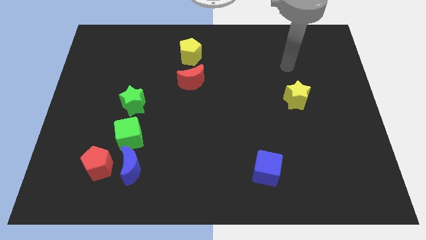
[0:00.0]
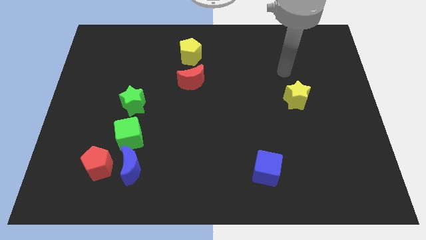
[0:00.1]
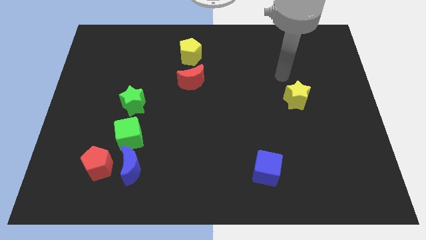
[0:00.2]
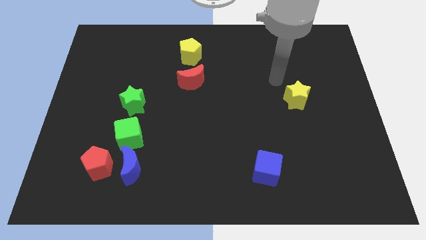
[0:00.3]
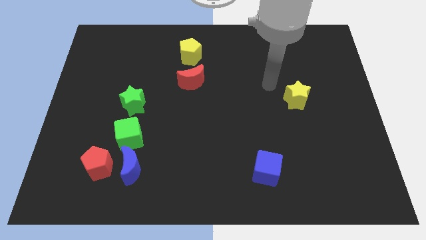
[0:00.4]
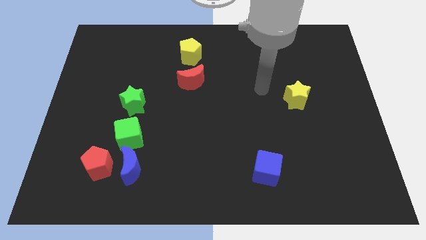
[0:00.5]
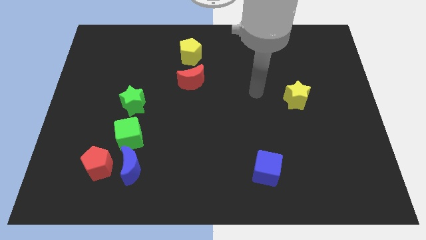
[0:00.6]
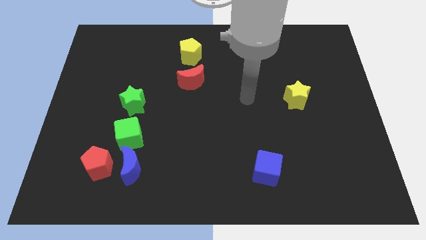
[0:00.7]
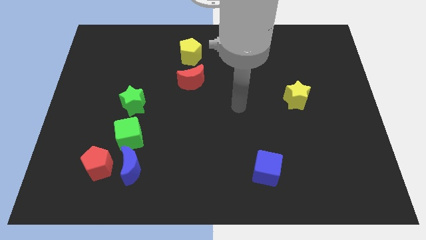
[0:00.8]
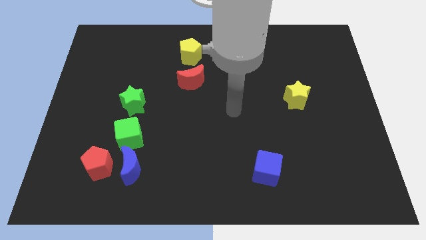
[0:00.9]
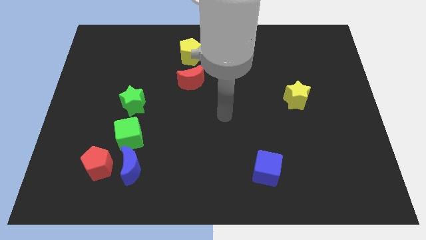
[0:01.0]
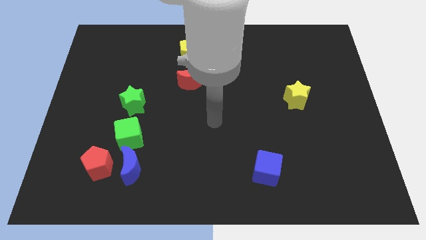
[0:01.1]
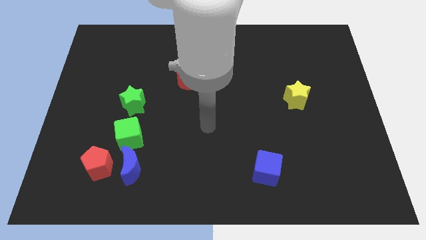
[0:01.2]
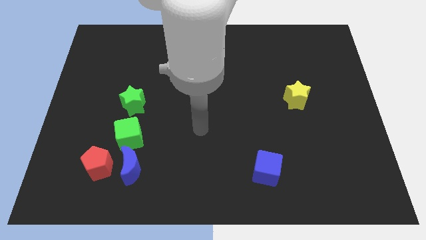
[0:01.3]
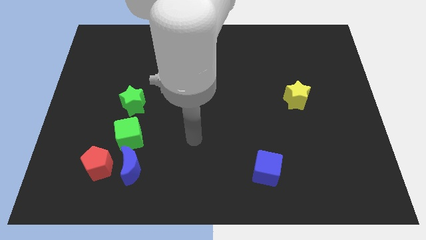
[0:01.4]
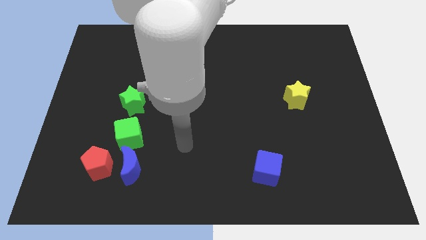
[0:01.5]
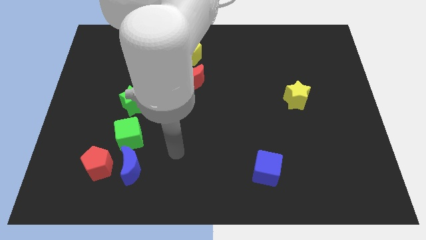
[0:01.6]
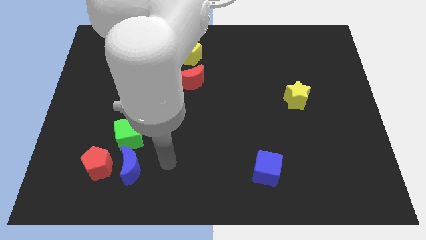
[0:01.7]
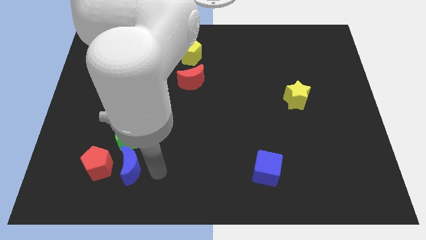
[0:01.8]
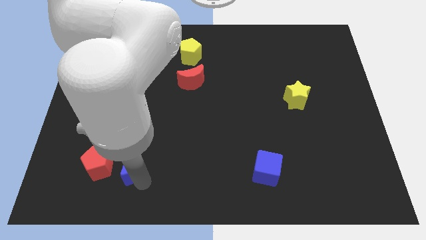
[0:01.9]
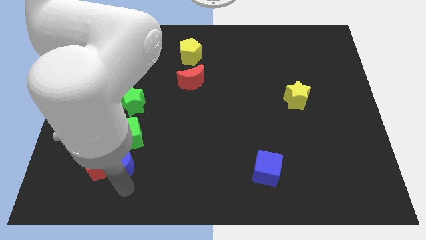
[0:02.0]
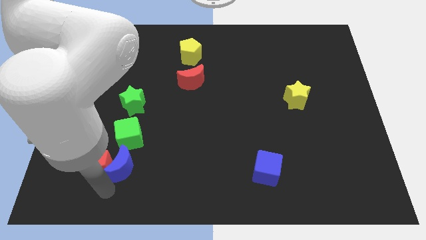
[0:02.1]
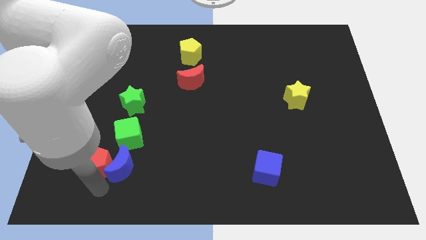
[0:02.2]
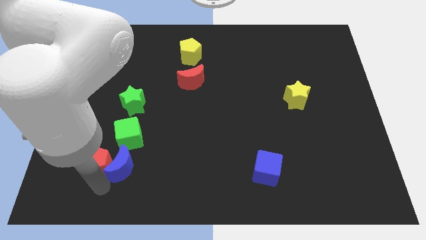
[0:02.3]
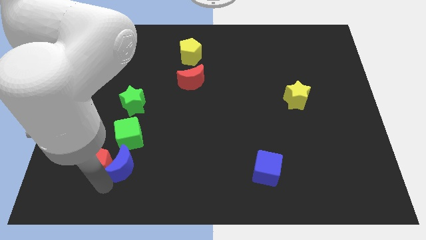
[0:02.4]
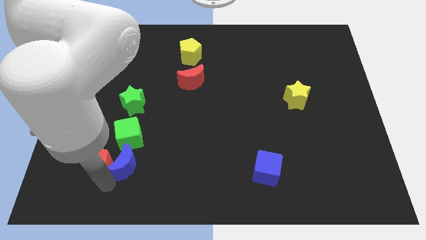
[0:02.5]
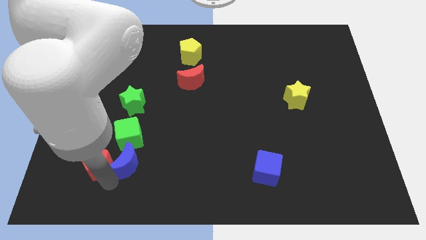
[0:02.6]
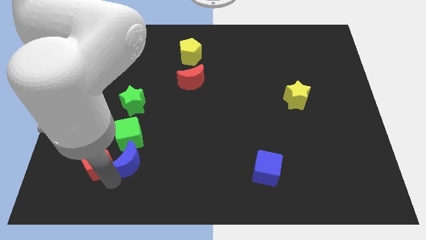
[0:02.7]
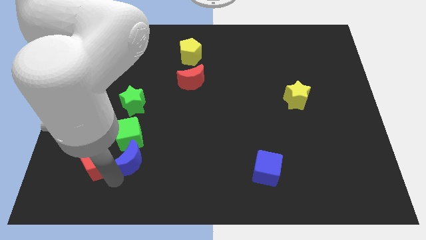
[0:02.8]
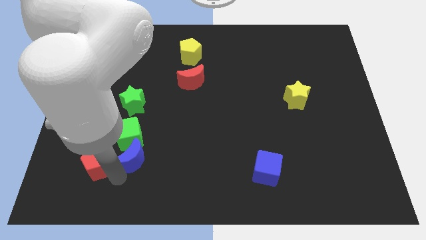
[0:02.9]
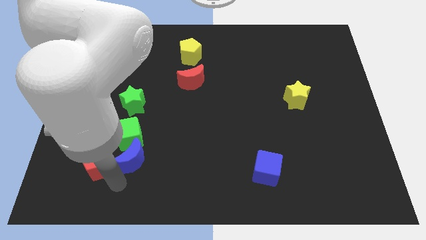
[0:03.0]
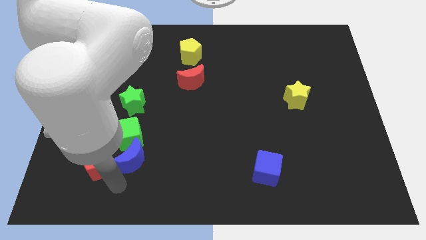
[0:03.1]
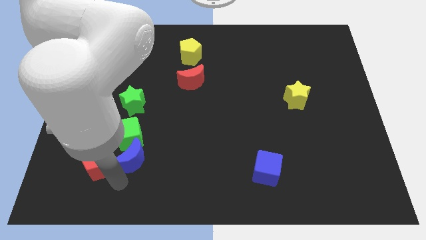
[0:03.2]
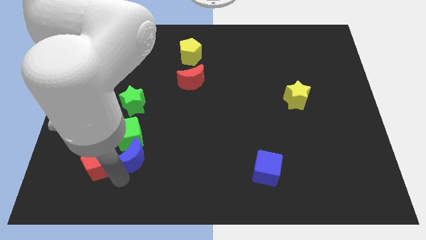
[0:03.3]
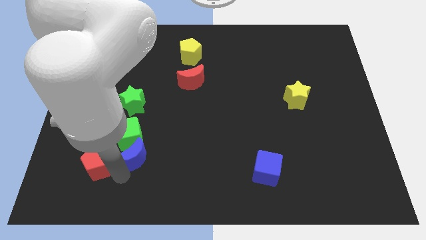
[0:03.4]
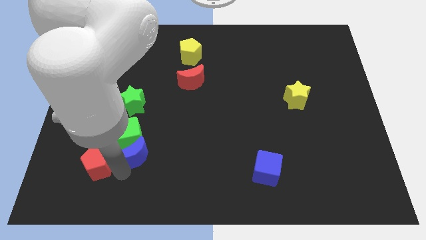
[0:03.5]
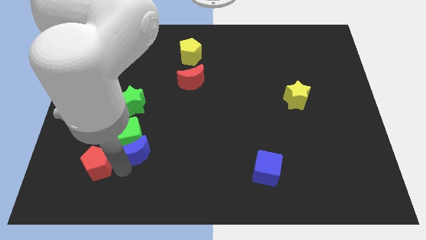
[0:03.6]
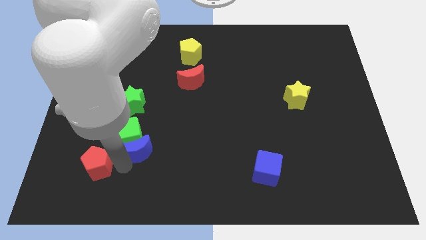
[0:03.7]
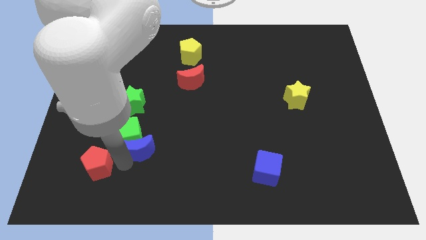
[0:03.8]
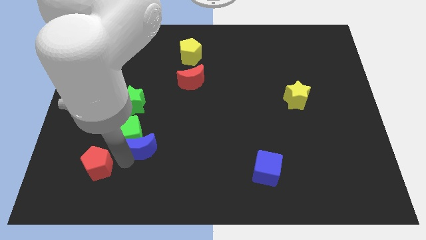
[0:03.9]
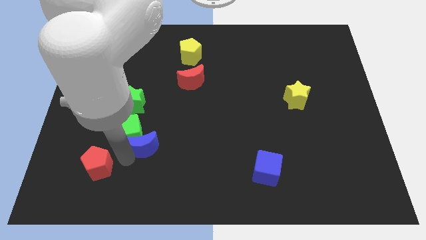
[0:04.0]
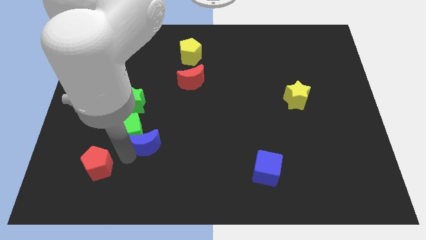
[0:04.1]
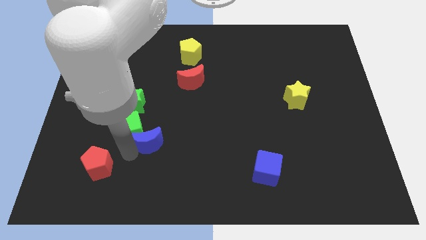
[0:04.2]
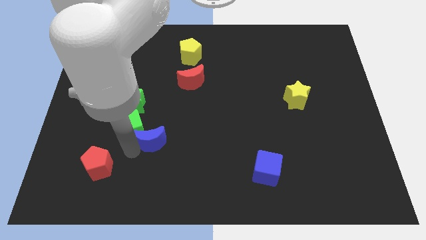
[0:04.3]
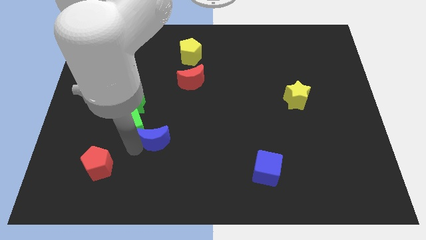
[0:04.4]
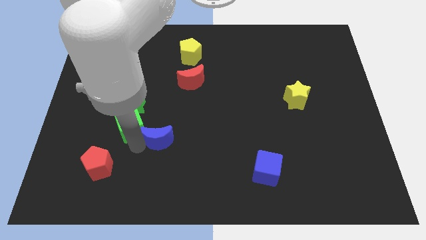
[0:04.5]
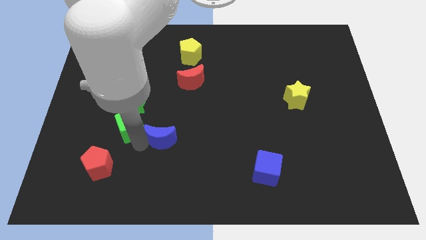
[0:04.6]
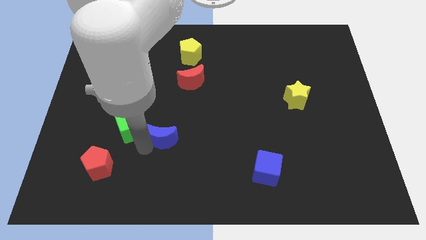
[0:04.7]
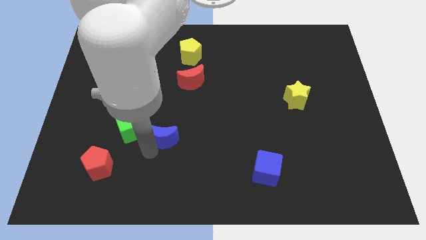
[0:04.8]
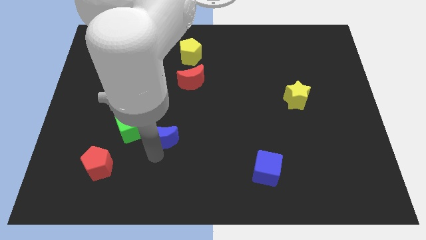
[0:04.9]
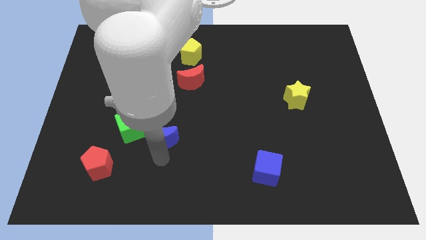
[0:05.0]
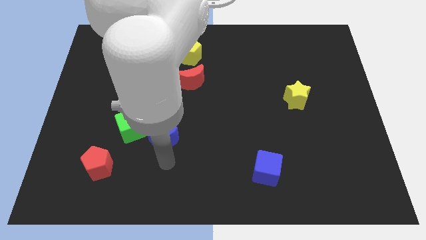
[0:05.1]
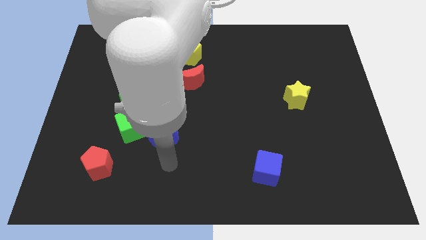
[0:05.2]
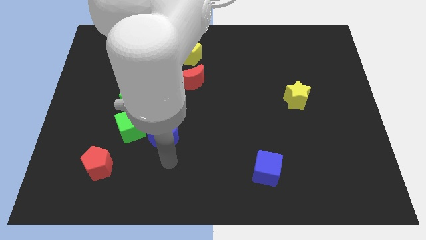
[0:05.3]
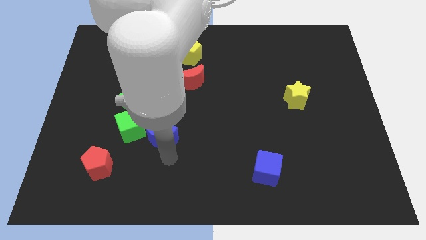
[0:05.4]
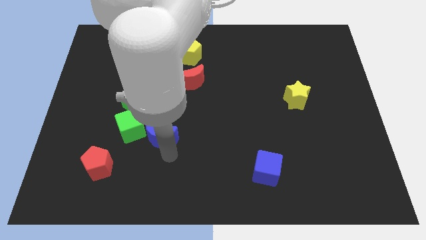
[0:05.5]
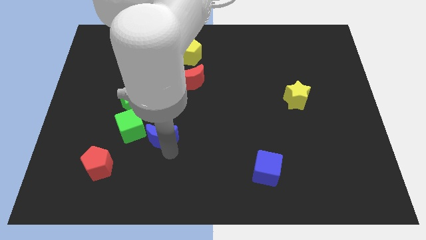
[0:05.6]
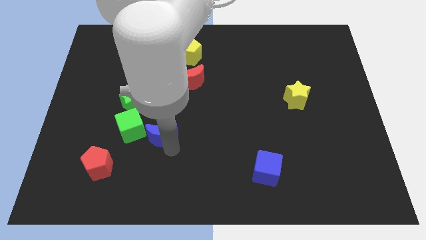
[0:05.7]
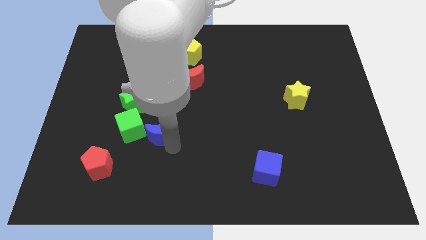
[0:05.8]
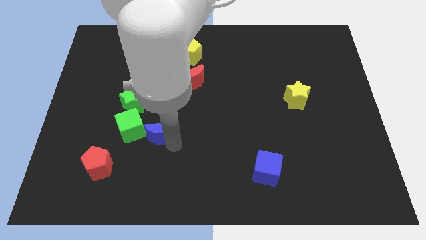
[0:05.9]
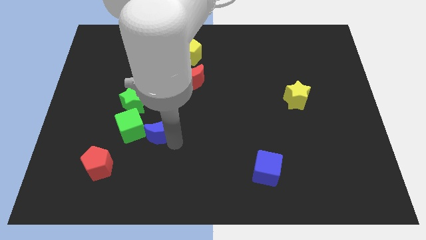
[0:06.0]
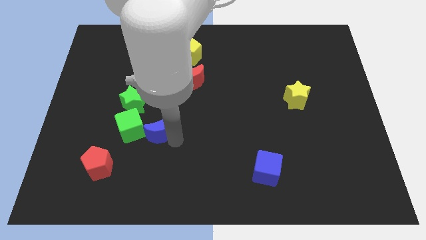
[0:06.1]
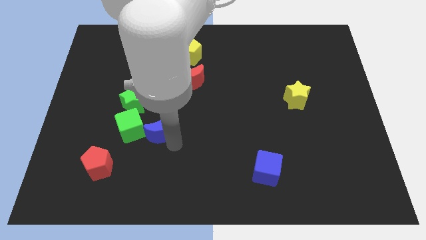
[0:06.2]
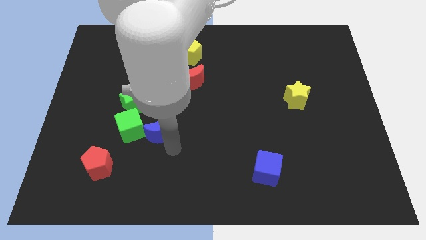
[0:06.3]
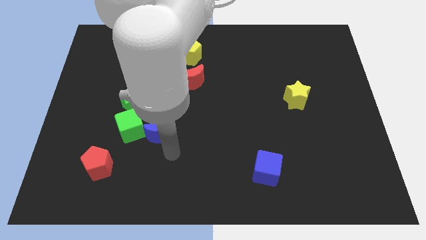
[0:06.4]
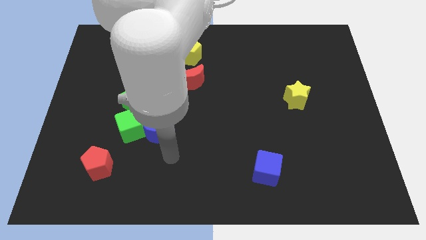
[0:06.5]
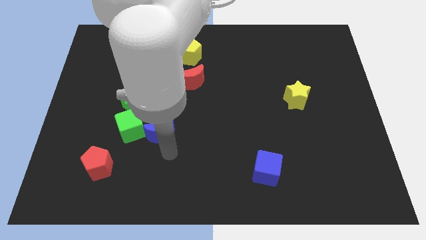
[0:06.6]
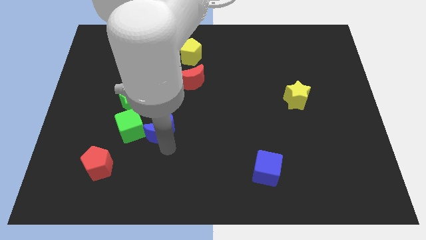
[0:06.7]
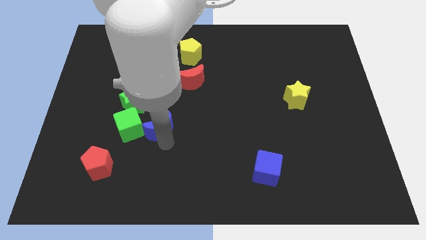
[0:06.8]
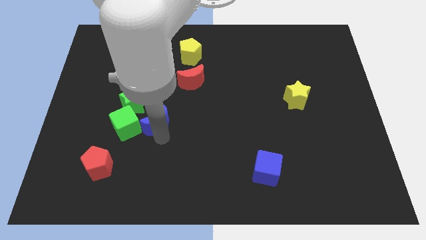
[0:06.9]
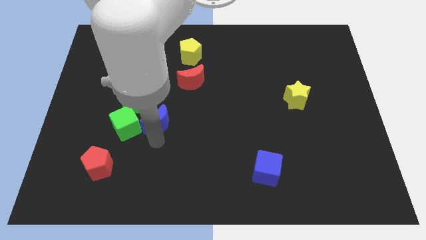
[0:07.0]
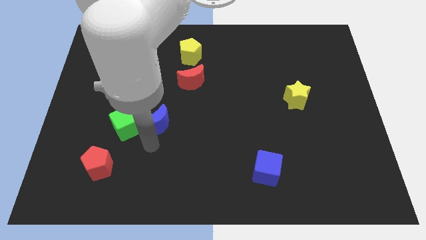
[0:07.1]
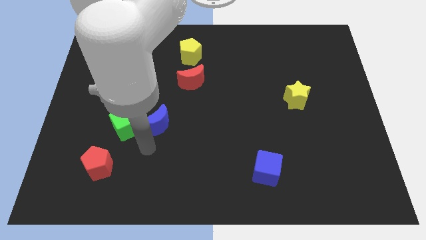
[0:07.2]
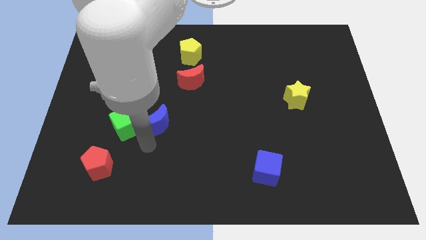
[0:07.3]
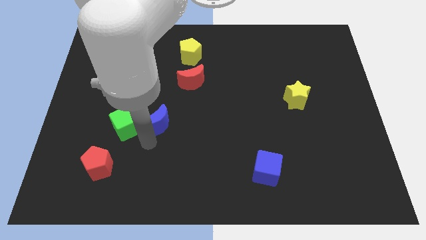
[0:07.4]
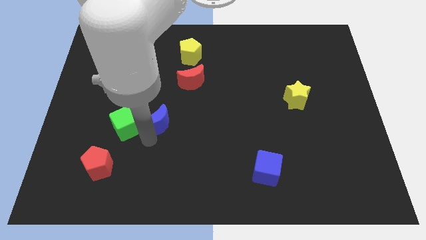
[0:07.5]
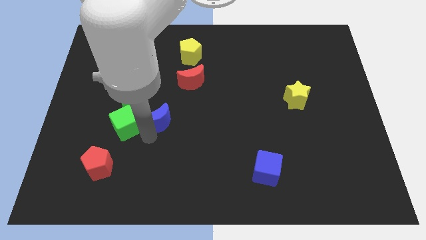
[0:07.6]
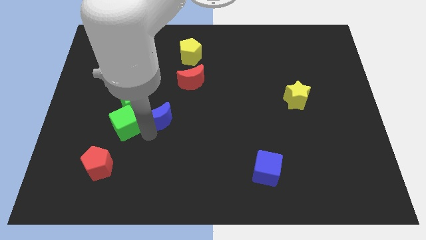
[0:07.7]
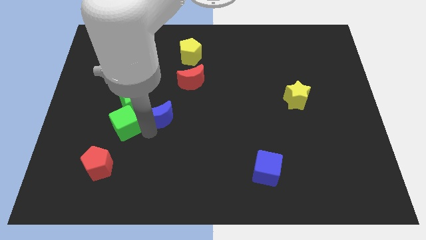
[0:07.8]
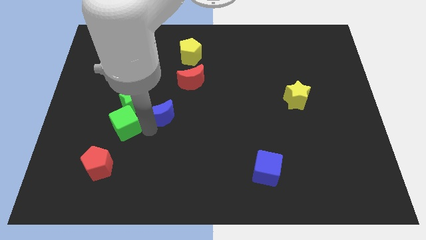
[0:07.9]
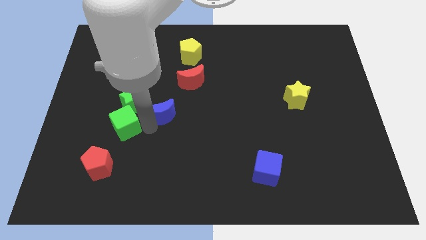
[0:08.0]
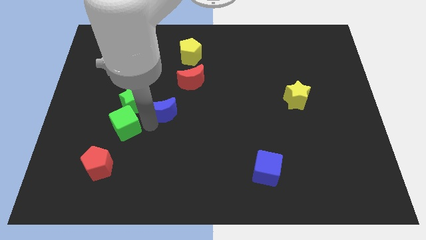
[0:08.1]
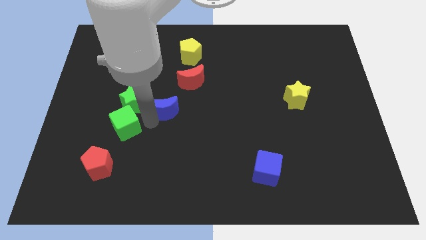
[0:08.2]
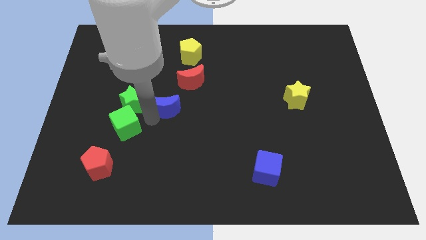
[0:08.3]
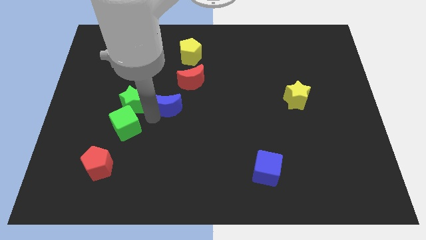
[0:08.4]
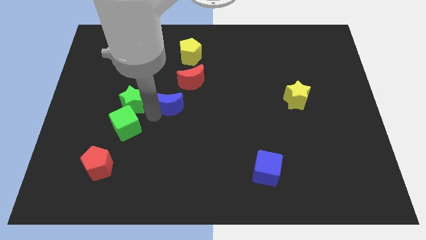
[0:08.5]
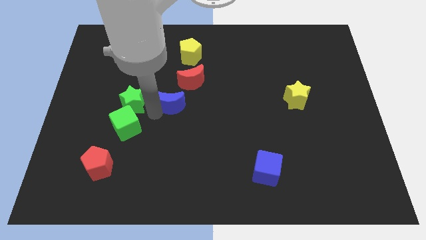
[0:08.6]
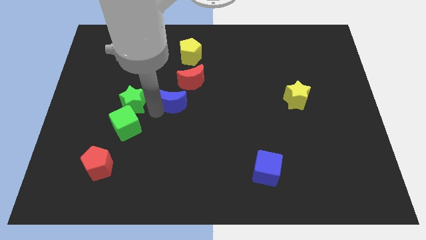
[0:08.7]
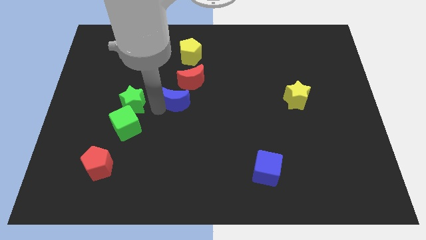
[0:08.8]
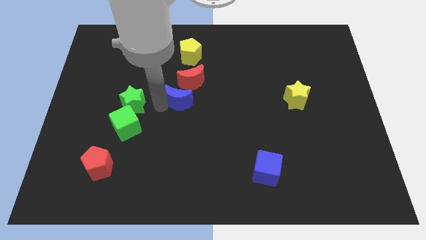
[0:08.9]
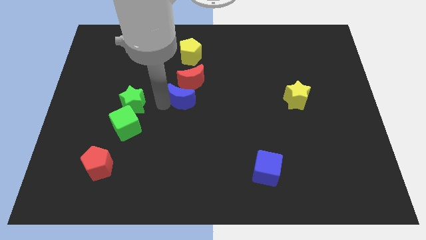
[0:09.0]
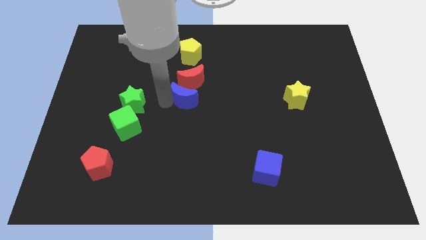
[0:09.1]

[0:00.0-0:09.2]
slide the blue moon to the red moon
